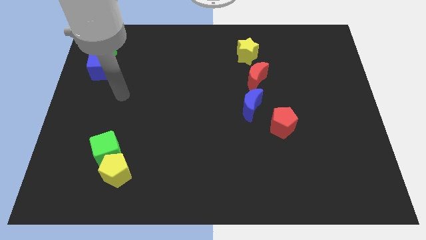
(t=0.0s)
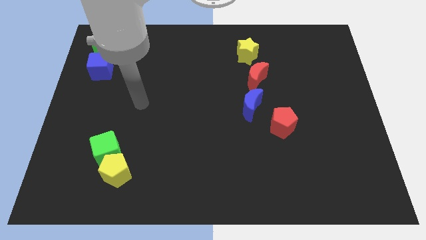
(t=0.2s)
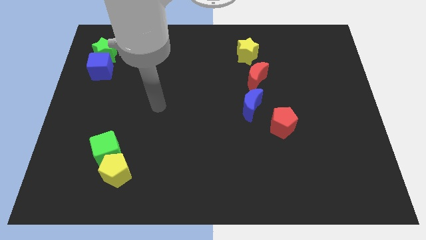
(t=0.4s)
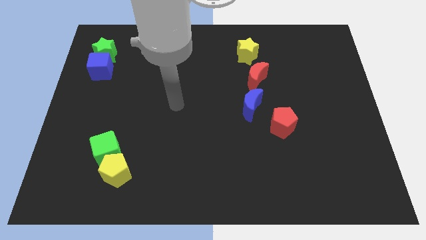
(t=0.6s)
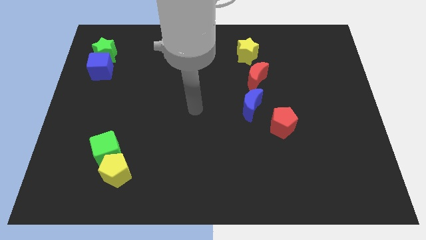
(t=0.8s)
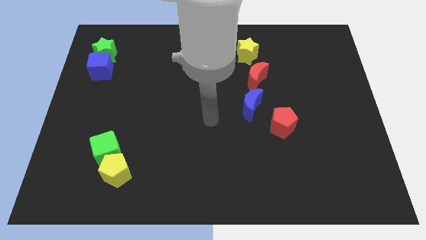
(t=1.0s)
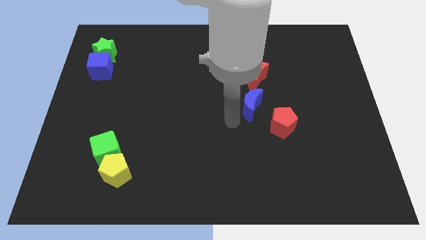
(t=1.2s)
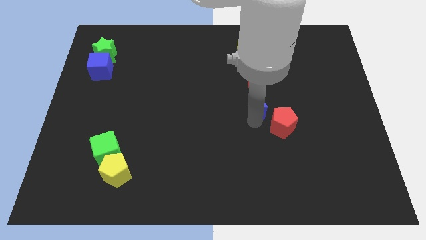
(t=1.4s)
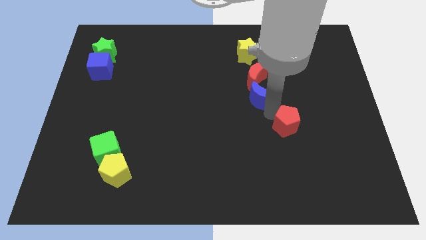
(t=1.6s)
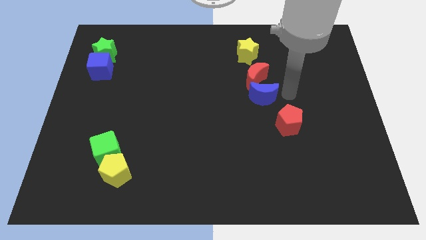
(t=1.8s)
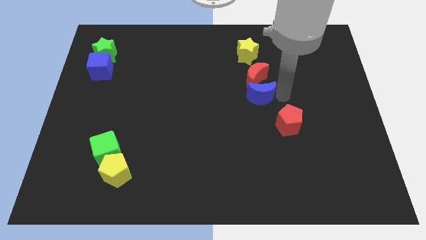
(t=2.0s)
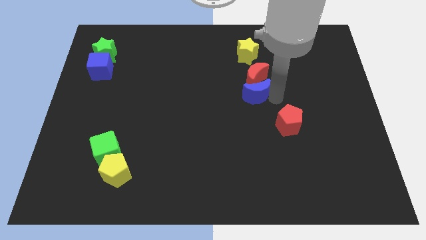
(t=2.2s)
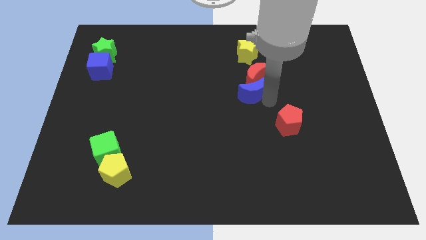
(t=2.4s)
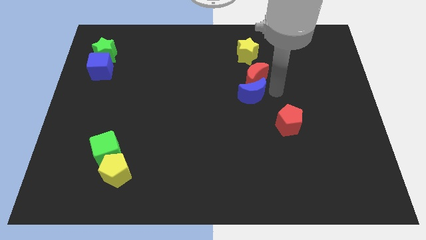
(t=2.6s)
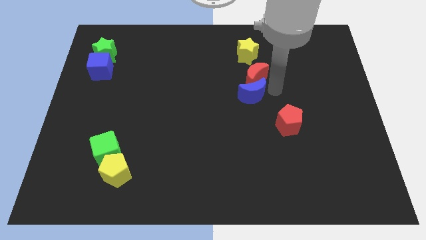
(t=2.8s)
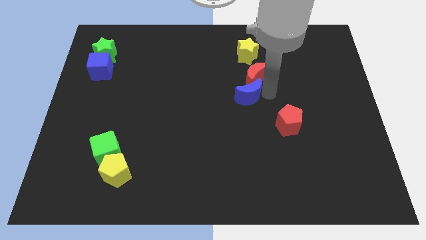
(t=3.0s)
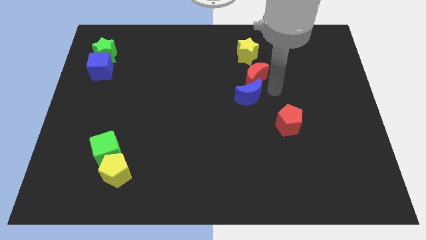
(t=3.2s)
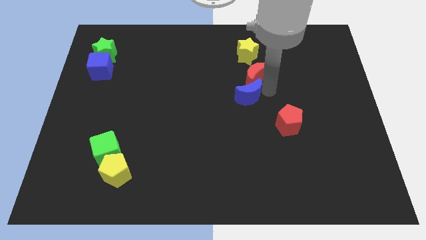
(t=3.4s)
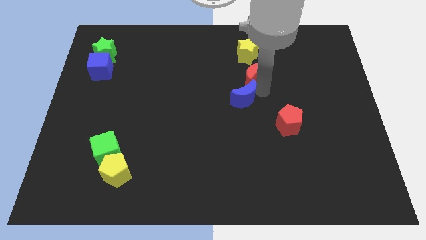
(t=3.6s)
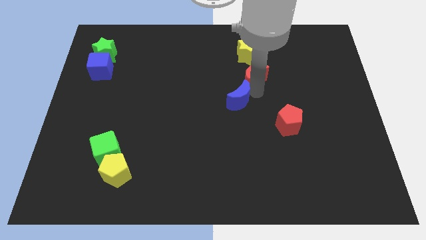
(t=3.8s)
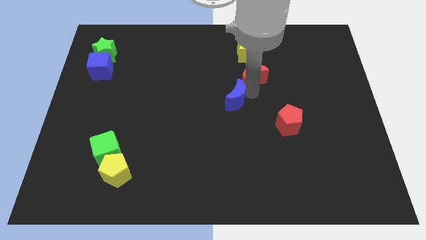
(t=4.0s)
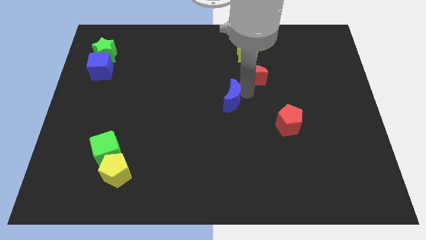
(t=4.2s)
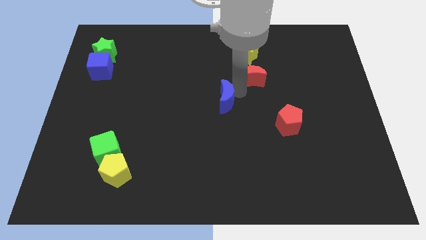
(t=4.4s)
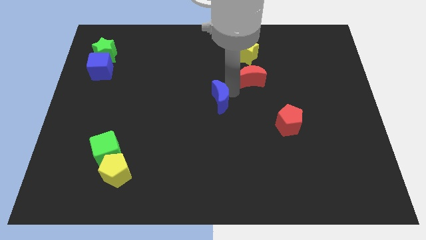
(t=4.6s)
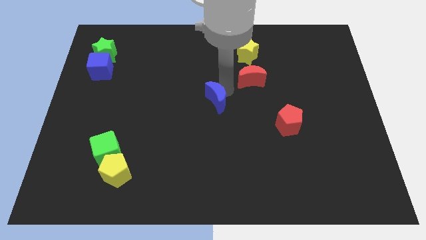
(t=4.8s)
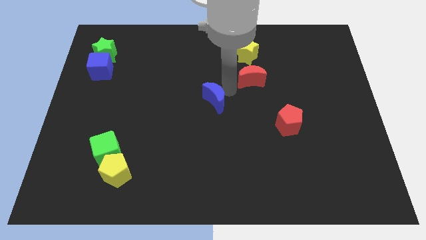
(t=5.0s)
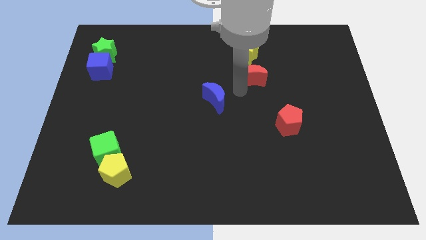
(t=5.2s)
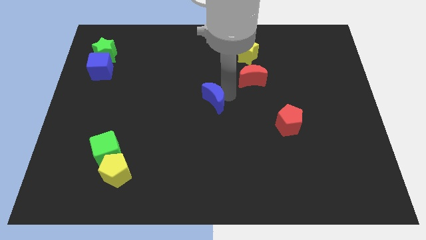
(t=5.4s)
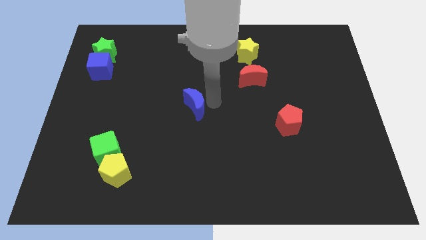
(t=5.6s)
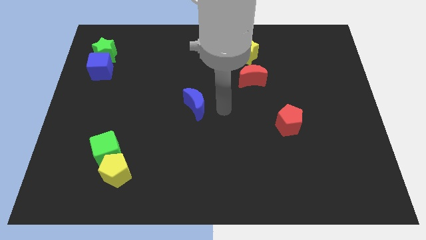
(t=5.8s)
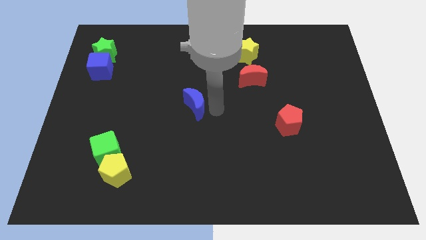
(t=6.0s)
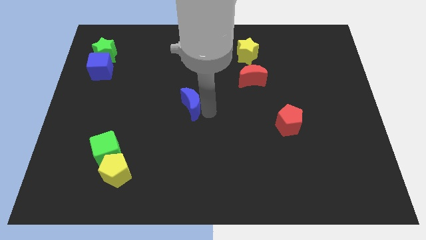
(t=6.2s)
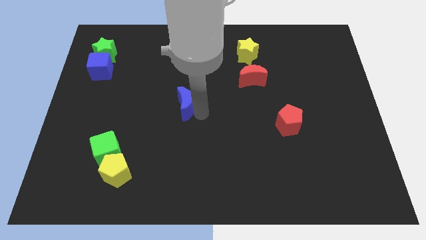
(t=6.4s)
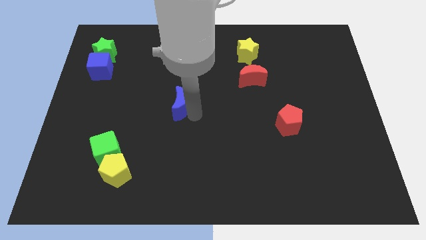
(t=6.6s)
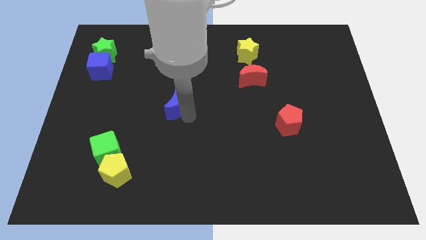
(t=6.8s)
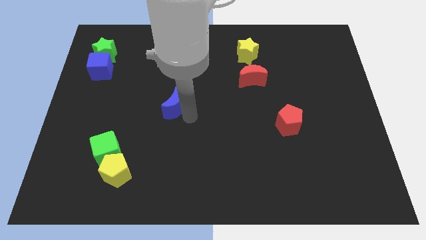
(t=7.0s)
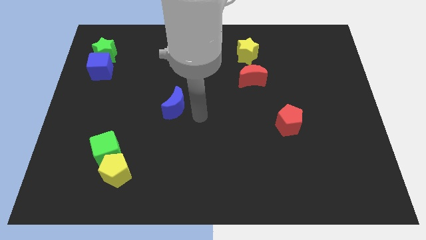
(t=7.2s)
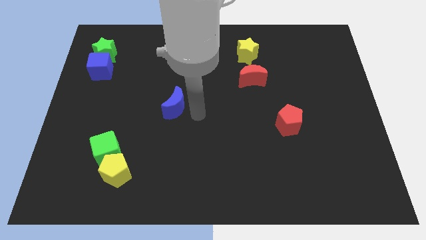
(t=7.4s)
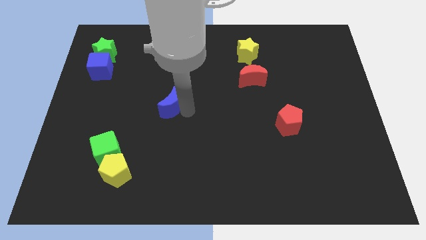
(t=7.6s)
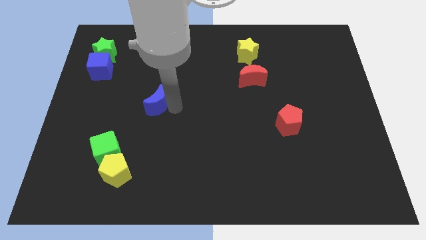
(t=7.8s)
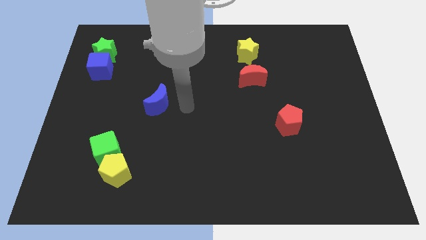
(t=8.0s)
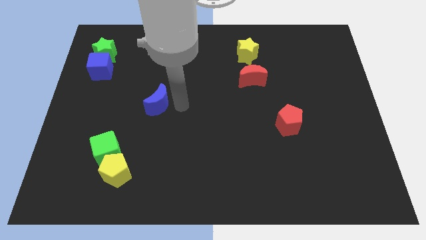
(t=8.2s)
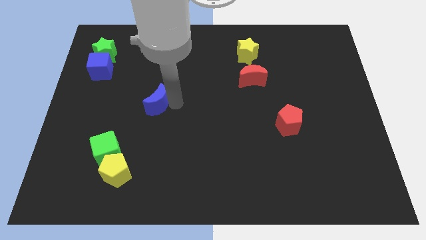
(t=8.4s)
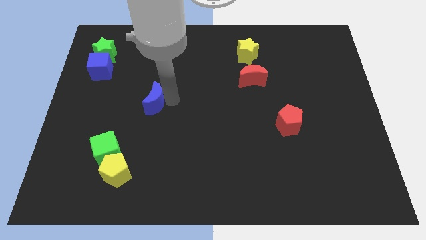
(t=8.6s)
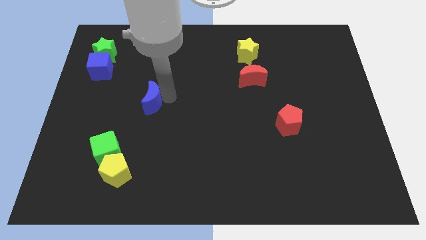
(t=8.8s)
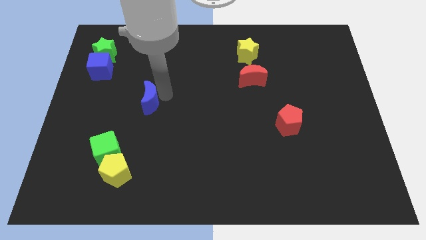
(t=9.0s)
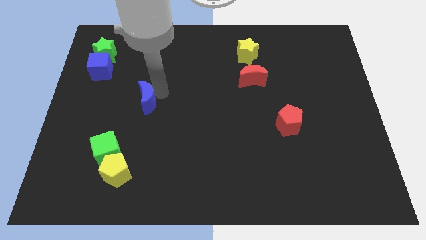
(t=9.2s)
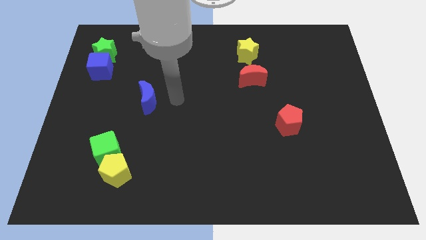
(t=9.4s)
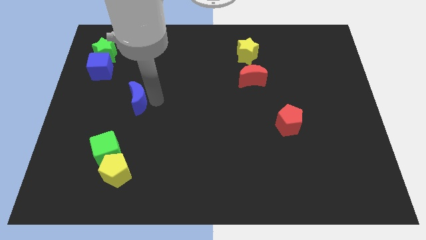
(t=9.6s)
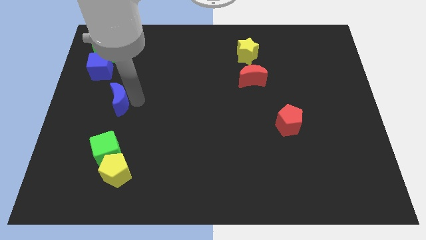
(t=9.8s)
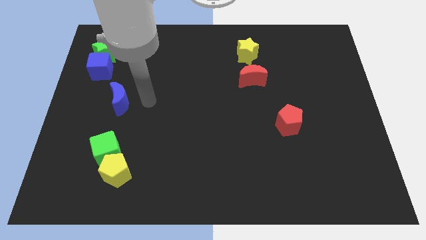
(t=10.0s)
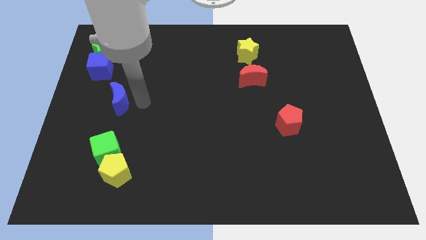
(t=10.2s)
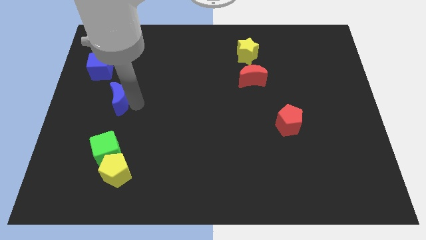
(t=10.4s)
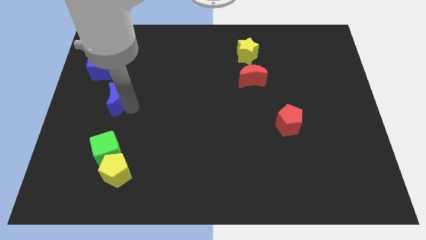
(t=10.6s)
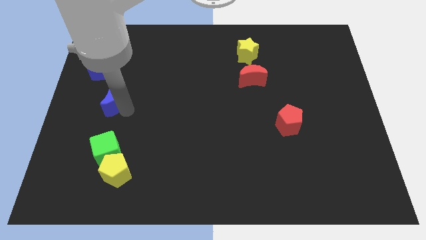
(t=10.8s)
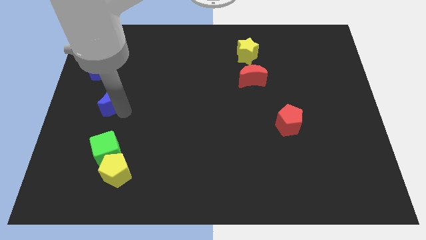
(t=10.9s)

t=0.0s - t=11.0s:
move the blue moon to the bottom of the blue cube

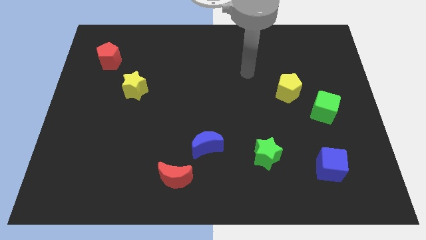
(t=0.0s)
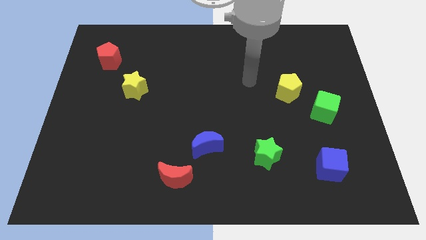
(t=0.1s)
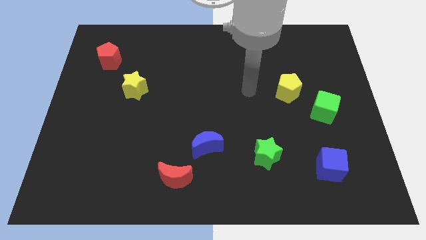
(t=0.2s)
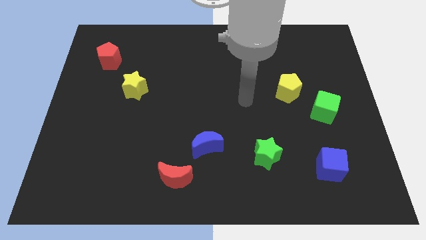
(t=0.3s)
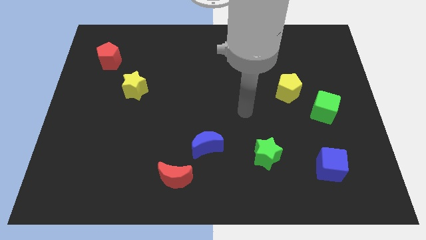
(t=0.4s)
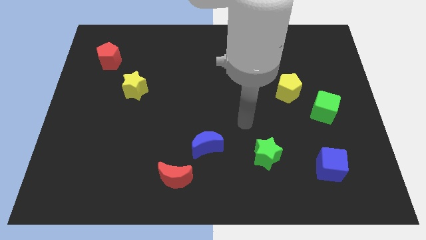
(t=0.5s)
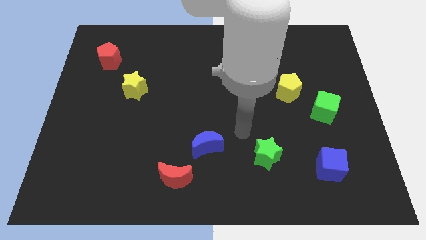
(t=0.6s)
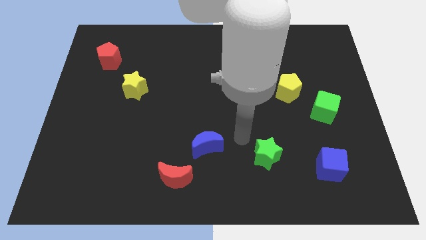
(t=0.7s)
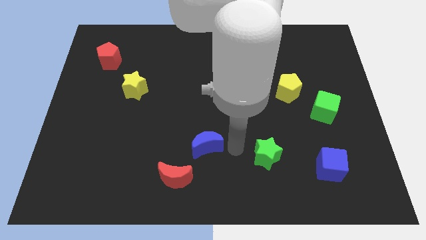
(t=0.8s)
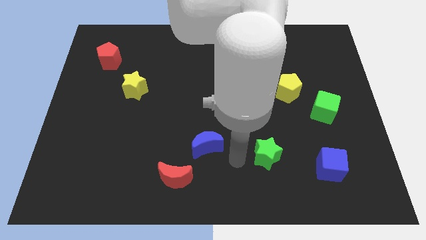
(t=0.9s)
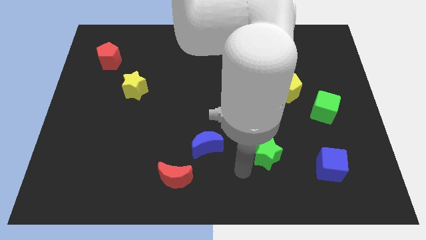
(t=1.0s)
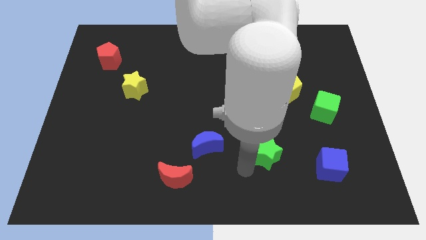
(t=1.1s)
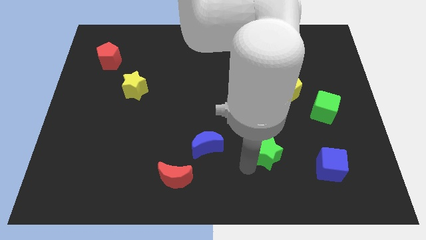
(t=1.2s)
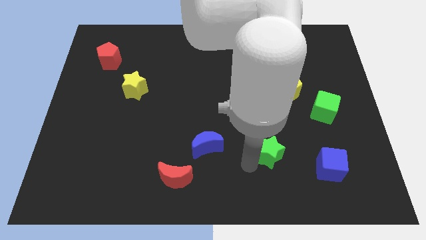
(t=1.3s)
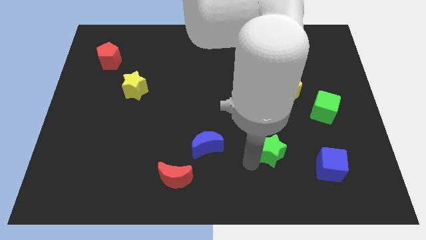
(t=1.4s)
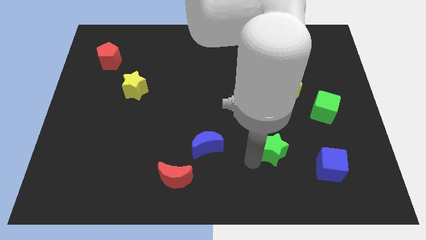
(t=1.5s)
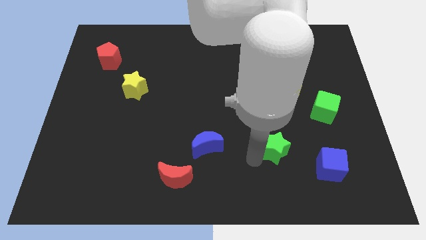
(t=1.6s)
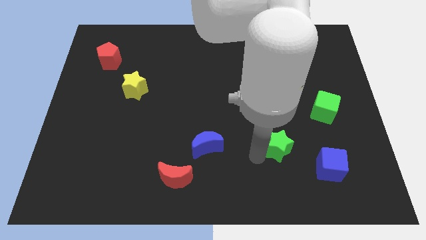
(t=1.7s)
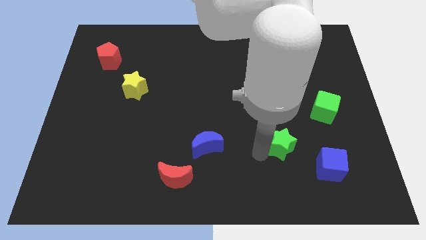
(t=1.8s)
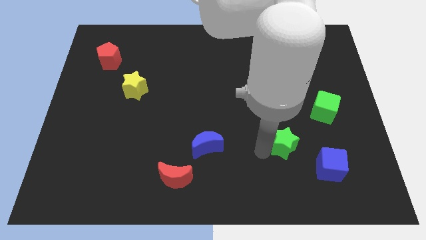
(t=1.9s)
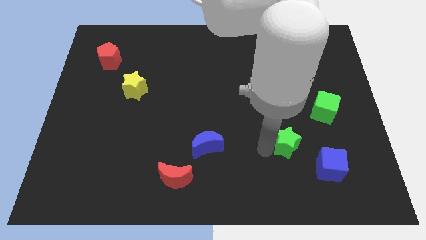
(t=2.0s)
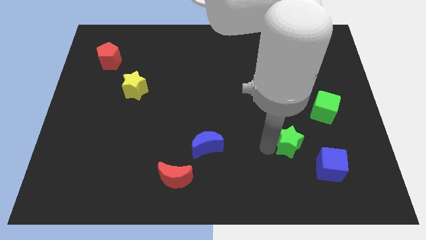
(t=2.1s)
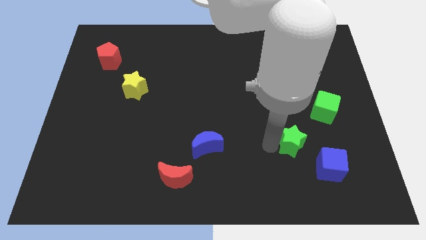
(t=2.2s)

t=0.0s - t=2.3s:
move the green star to the bottom left of the green cube
